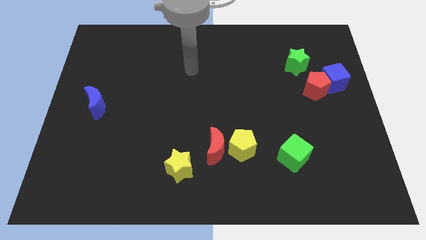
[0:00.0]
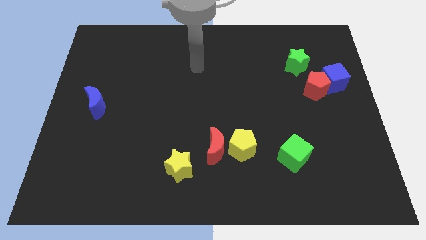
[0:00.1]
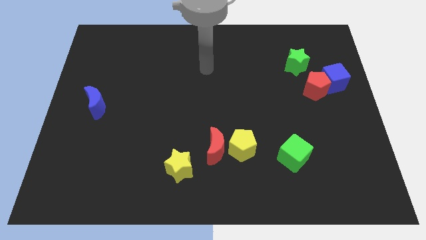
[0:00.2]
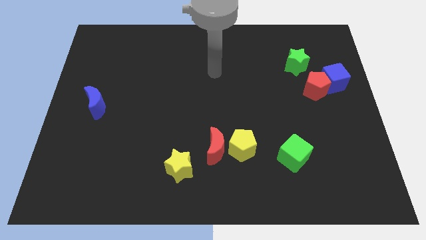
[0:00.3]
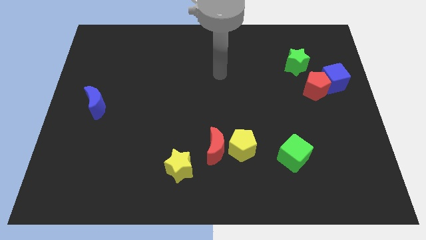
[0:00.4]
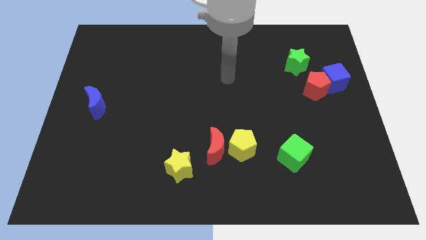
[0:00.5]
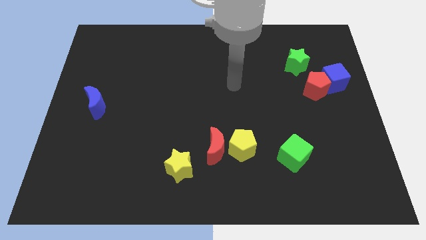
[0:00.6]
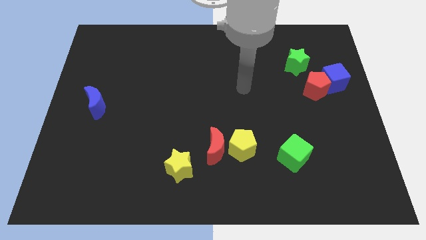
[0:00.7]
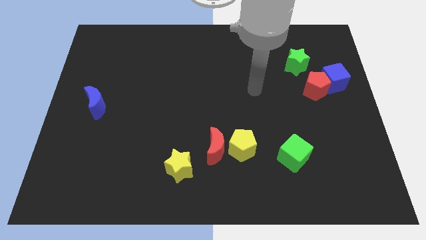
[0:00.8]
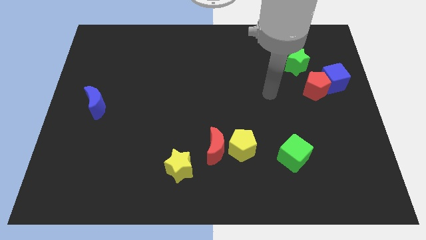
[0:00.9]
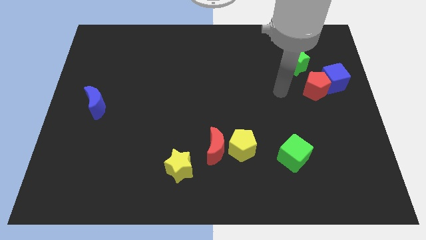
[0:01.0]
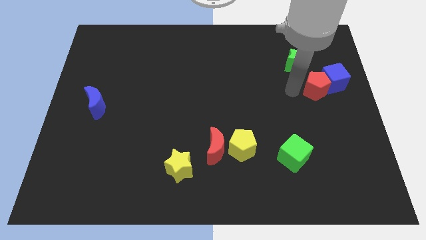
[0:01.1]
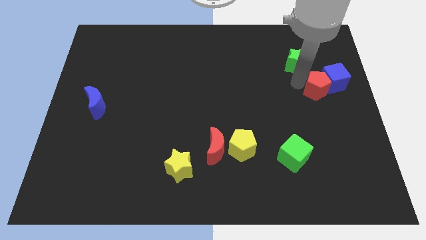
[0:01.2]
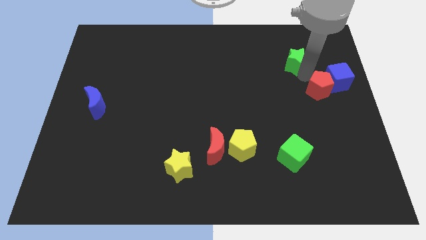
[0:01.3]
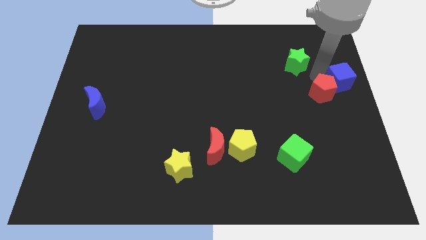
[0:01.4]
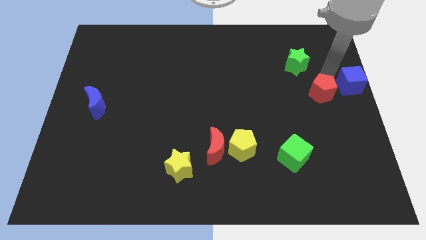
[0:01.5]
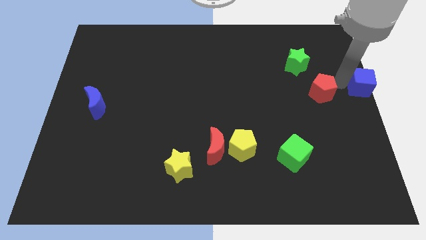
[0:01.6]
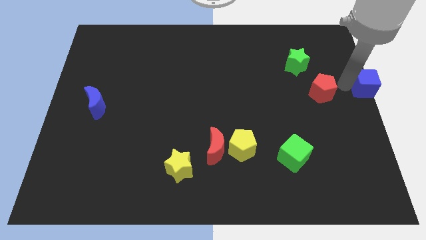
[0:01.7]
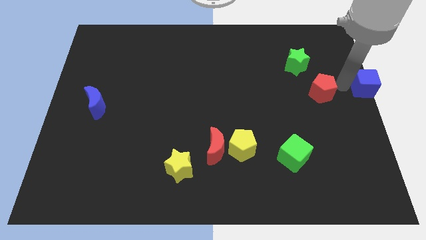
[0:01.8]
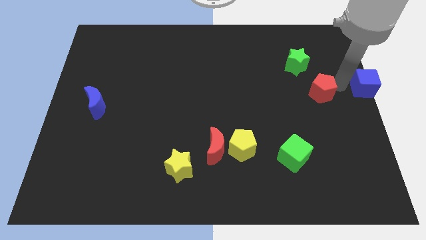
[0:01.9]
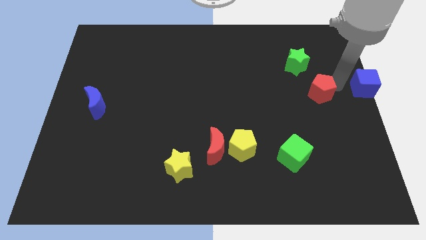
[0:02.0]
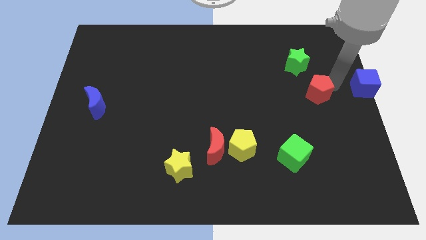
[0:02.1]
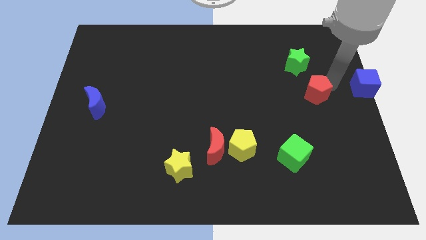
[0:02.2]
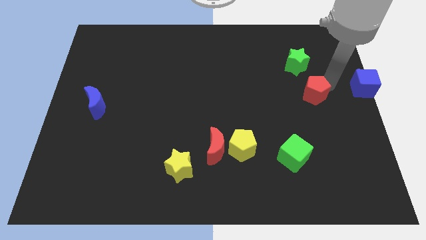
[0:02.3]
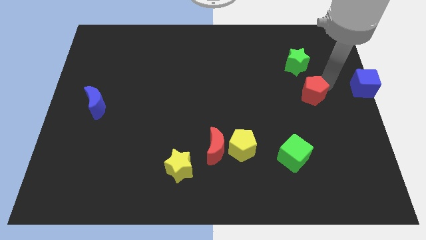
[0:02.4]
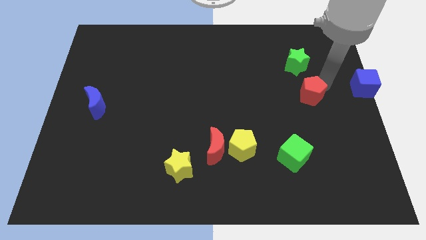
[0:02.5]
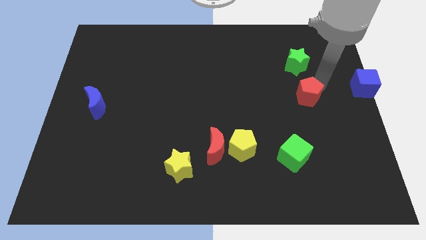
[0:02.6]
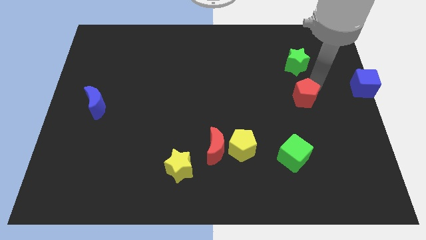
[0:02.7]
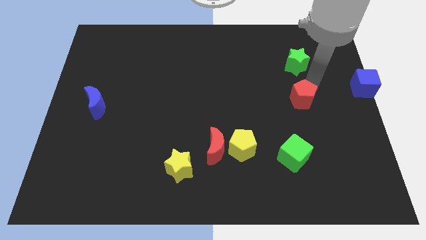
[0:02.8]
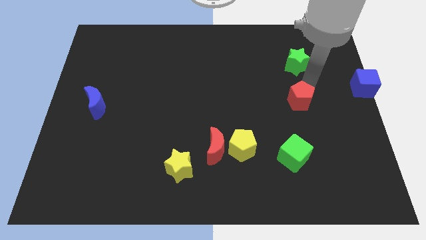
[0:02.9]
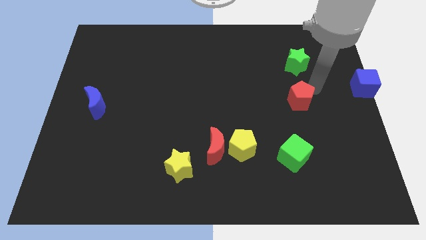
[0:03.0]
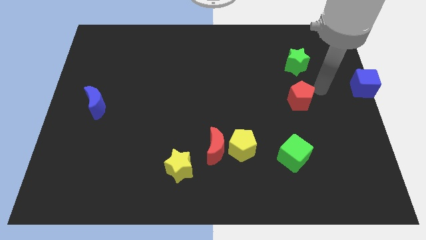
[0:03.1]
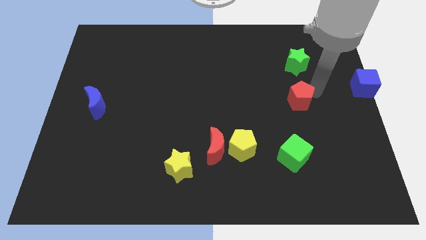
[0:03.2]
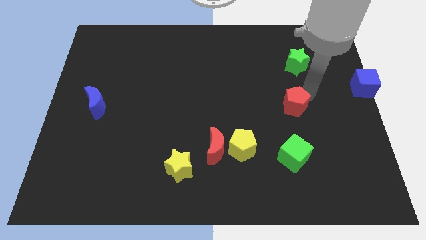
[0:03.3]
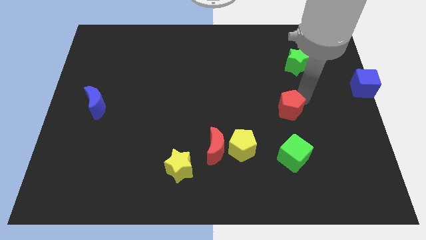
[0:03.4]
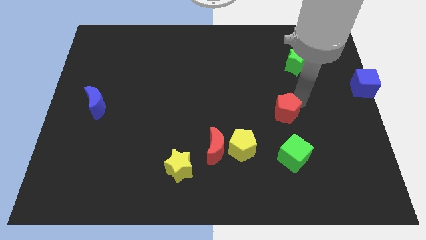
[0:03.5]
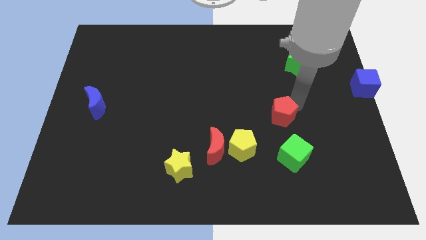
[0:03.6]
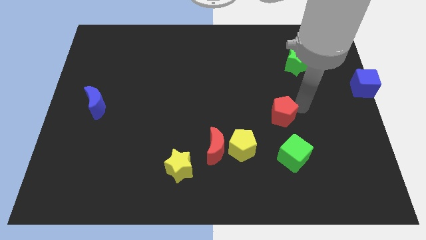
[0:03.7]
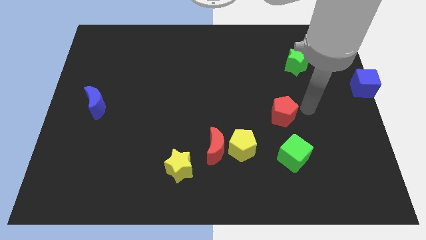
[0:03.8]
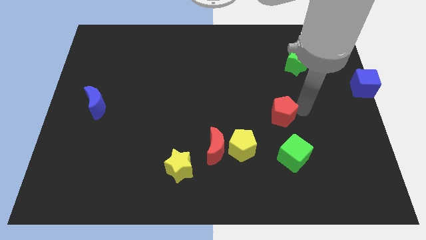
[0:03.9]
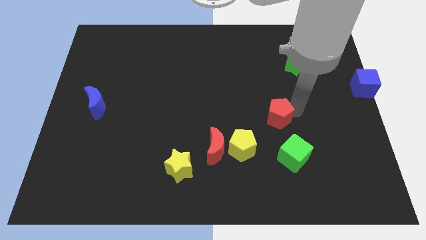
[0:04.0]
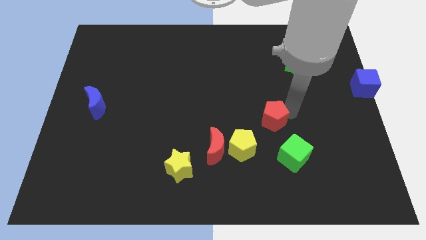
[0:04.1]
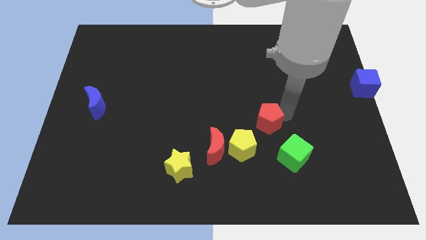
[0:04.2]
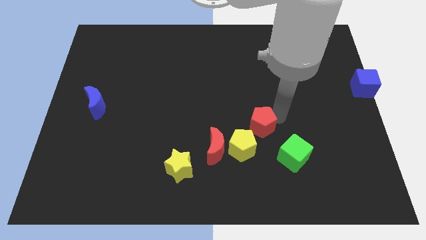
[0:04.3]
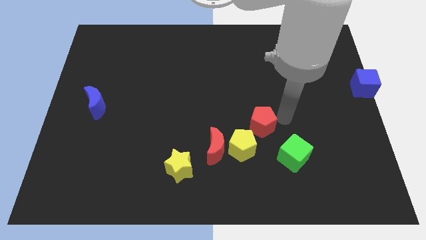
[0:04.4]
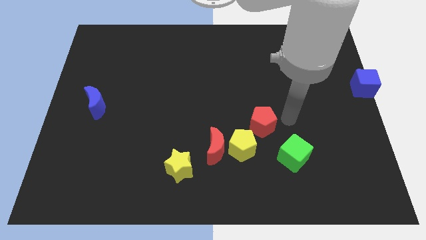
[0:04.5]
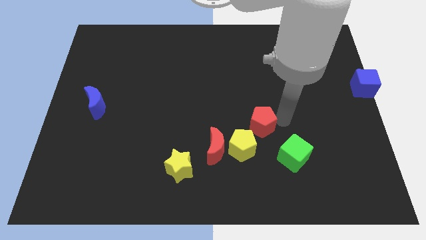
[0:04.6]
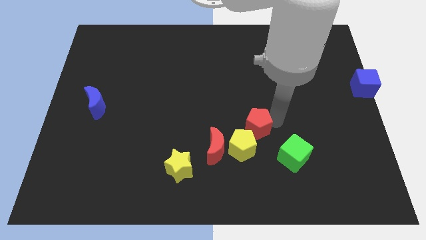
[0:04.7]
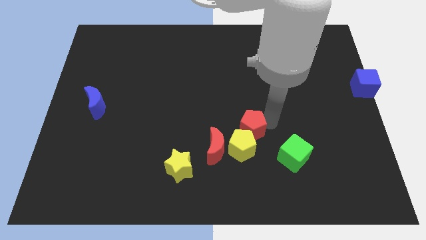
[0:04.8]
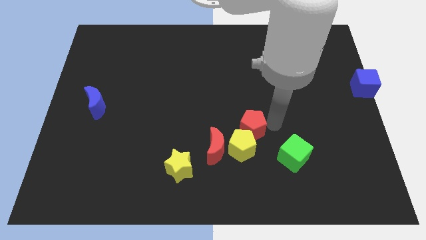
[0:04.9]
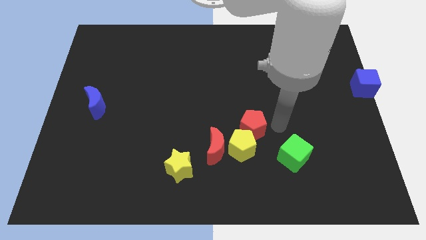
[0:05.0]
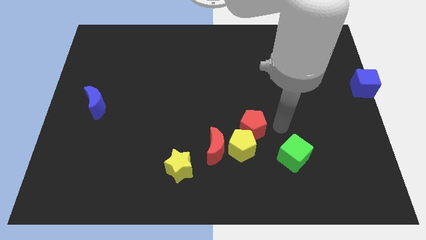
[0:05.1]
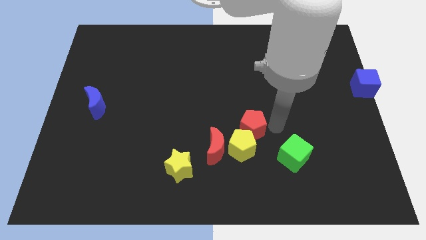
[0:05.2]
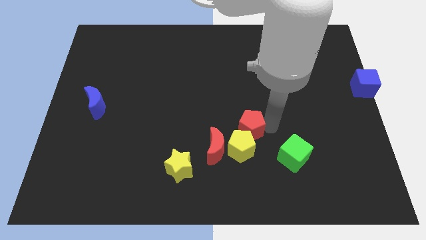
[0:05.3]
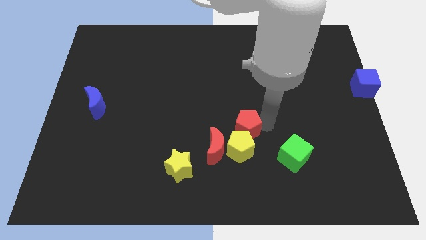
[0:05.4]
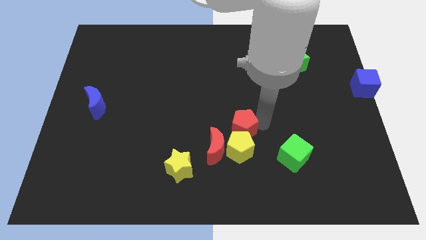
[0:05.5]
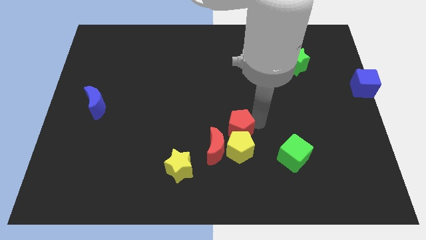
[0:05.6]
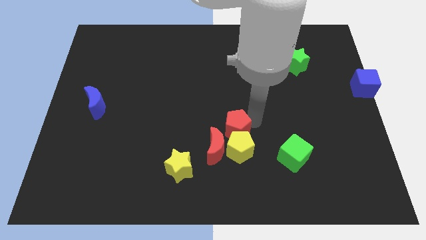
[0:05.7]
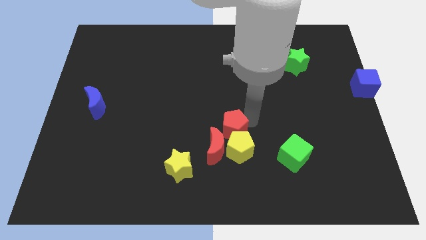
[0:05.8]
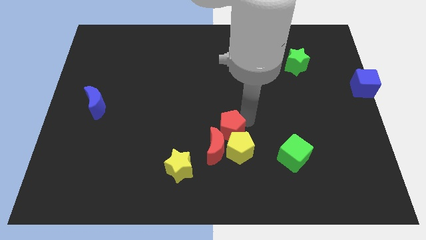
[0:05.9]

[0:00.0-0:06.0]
push the red pentagon towards the red moon

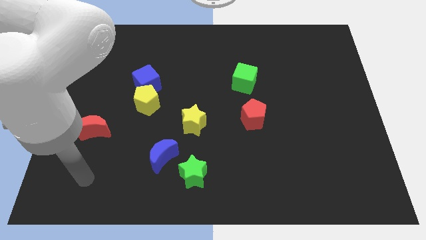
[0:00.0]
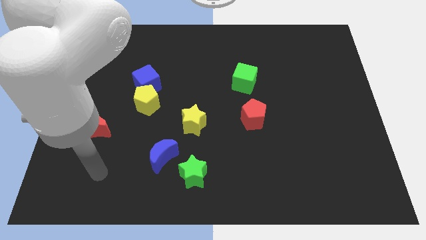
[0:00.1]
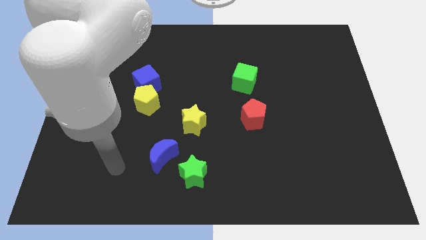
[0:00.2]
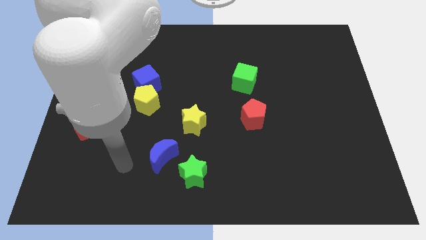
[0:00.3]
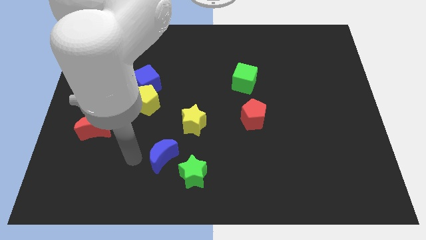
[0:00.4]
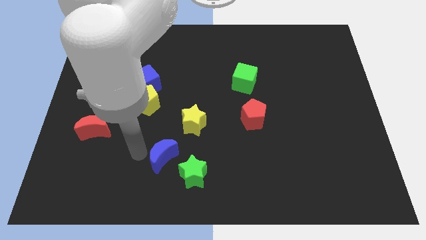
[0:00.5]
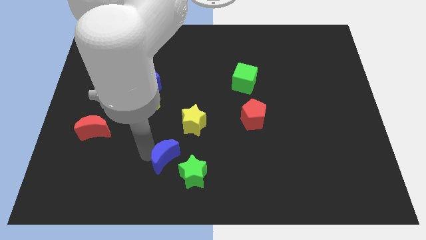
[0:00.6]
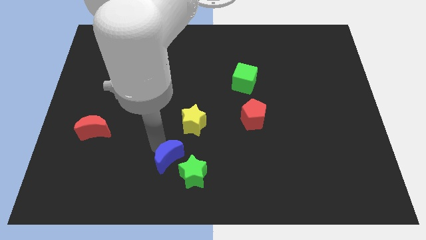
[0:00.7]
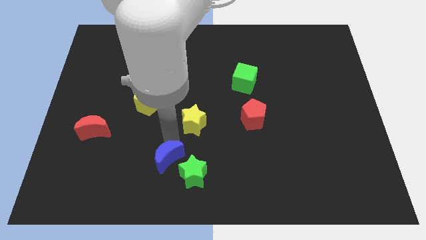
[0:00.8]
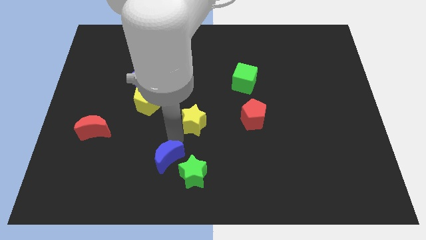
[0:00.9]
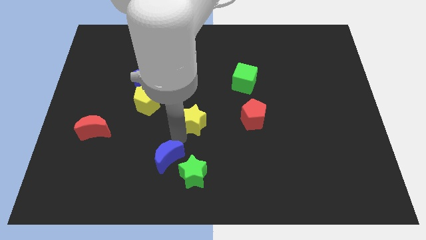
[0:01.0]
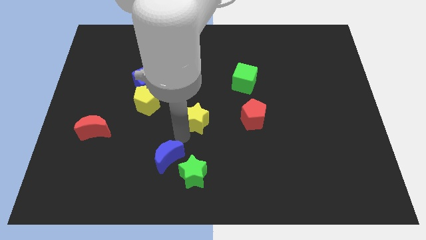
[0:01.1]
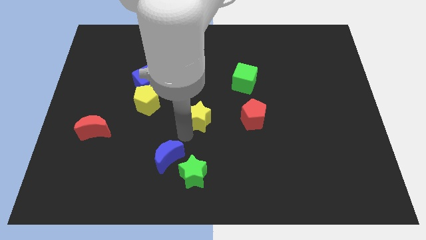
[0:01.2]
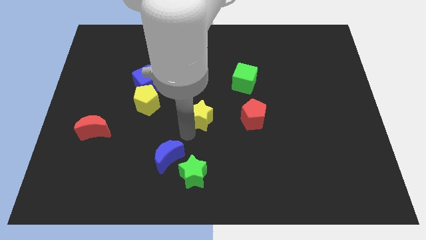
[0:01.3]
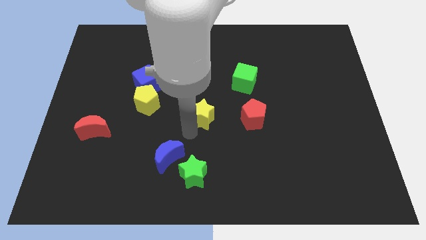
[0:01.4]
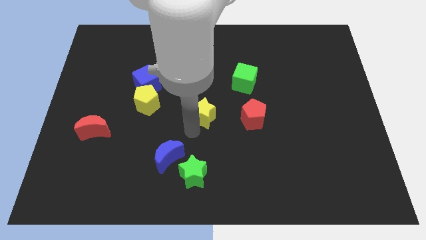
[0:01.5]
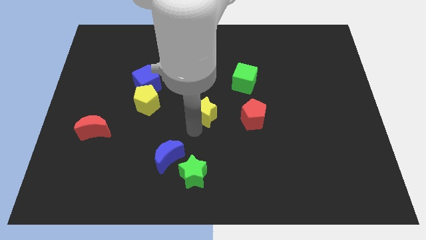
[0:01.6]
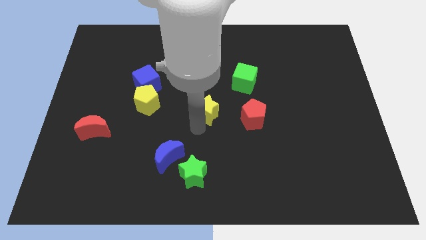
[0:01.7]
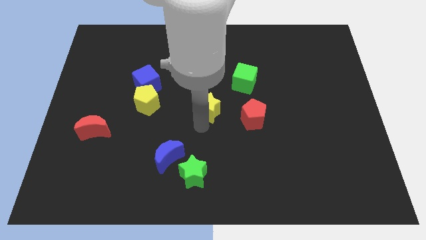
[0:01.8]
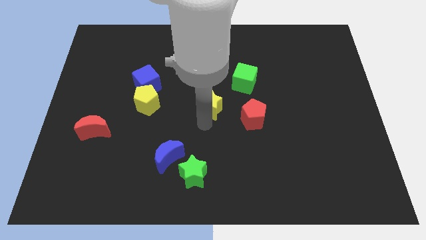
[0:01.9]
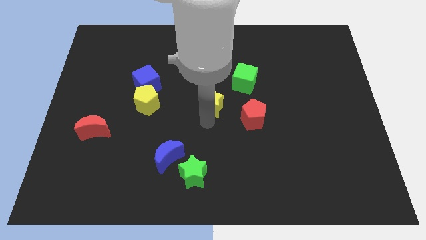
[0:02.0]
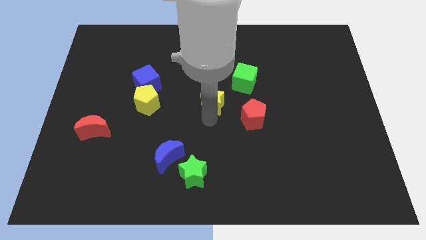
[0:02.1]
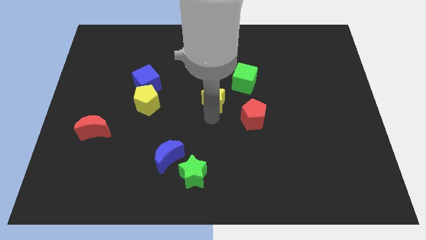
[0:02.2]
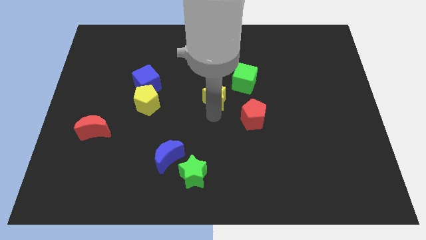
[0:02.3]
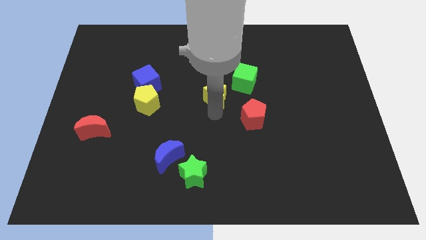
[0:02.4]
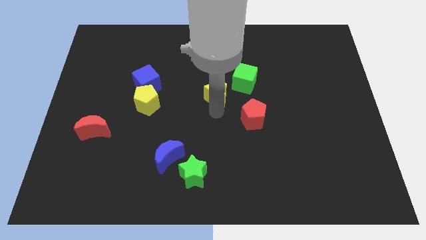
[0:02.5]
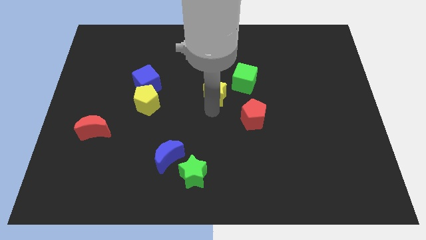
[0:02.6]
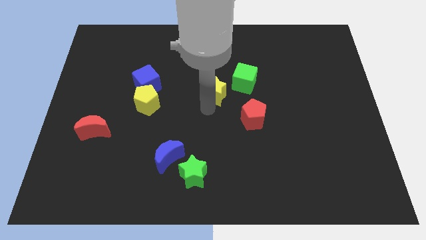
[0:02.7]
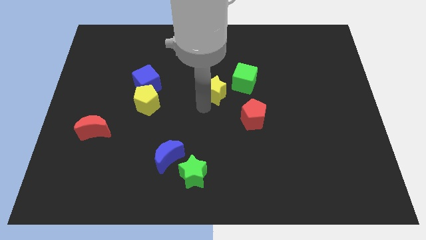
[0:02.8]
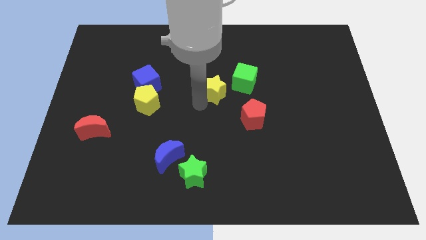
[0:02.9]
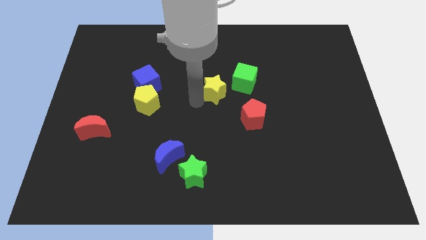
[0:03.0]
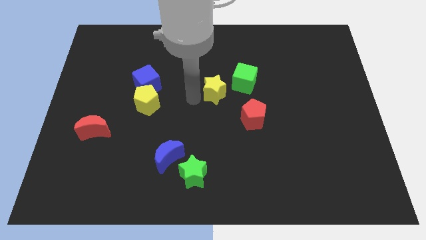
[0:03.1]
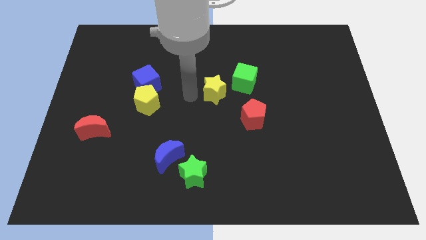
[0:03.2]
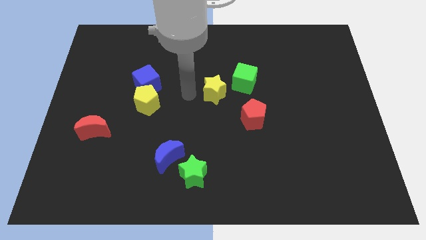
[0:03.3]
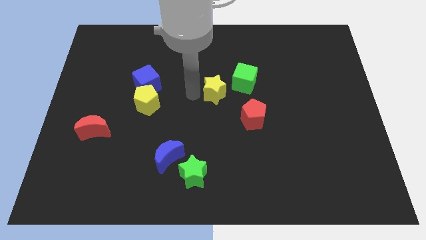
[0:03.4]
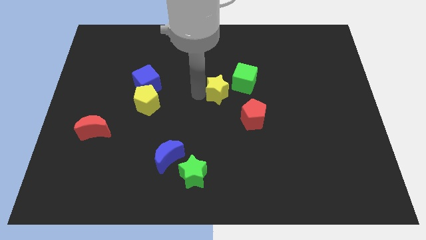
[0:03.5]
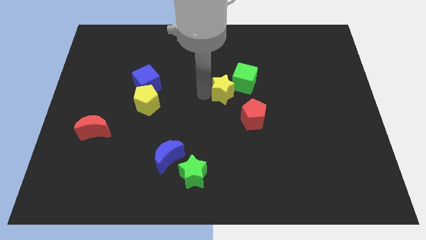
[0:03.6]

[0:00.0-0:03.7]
slide the yellow star to the green cube
